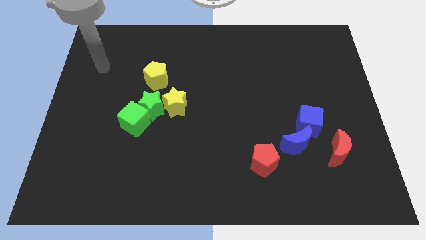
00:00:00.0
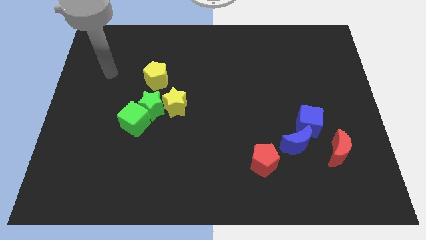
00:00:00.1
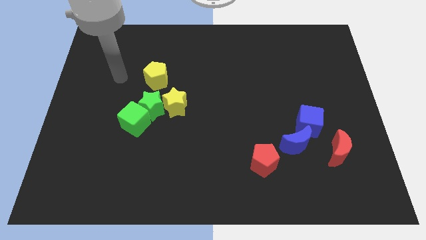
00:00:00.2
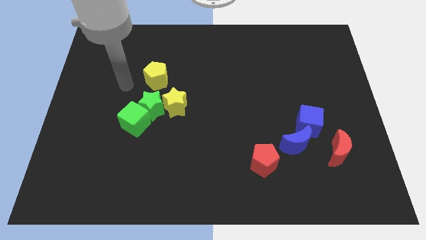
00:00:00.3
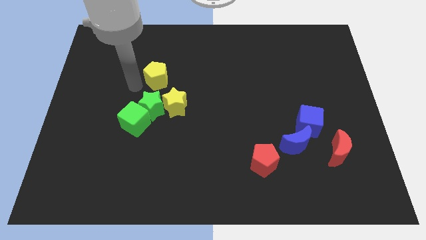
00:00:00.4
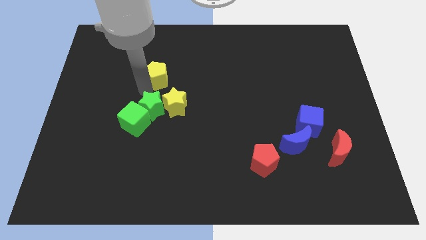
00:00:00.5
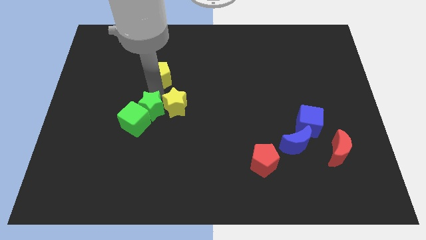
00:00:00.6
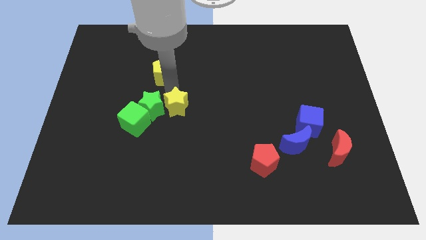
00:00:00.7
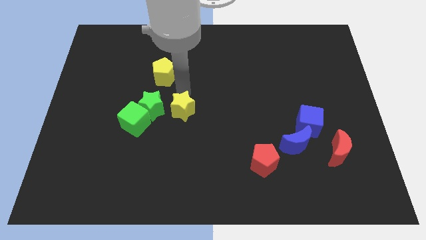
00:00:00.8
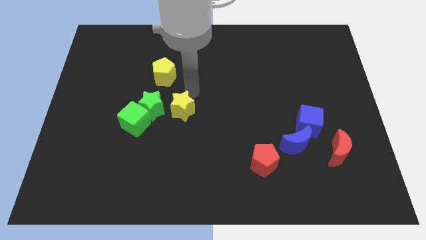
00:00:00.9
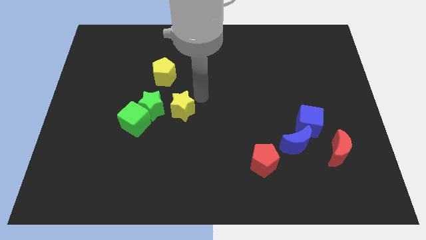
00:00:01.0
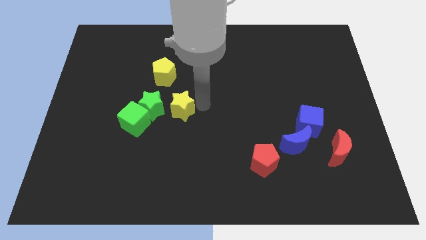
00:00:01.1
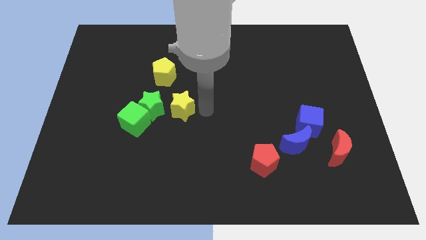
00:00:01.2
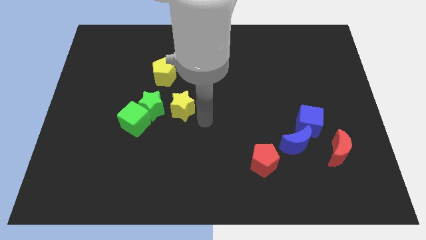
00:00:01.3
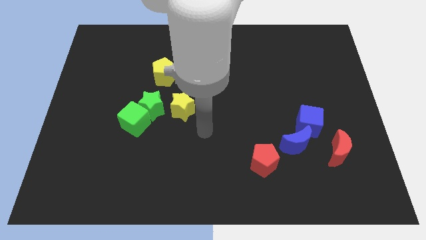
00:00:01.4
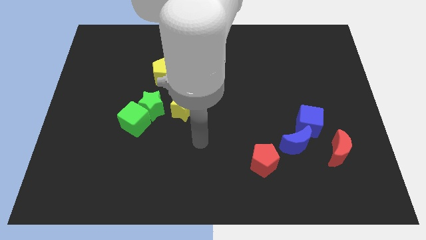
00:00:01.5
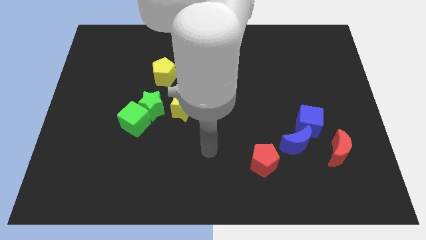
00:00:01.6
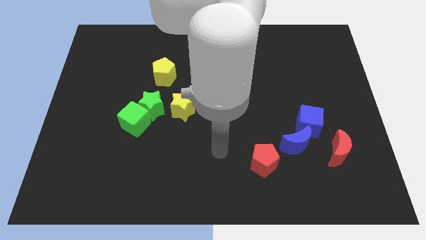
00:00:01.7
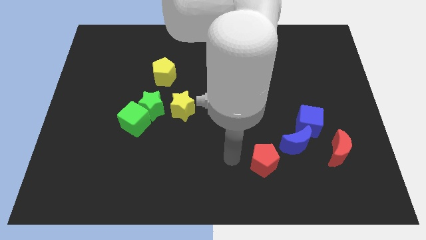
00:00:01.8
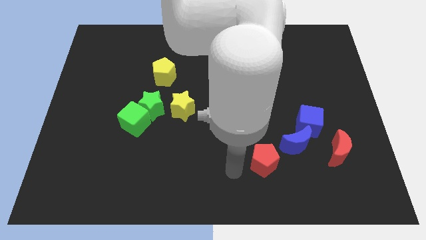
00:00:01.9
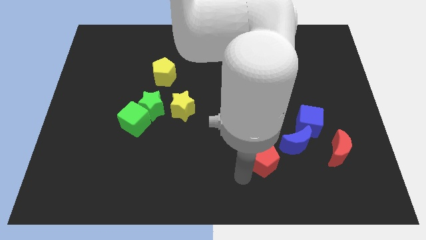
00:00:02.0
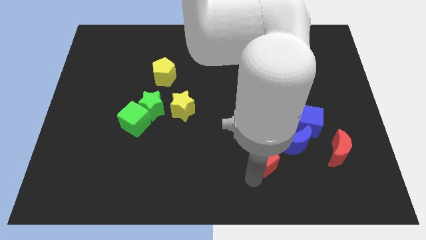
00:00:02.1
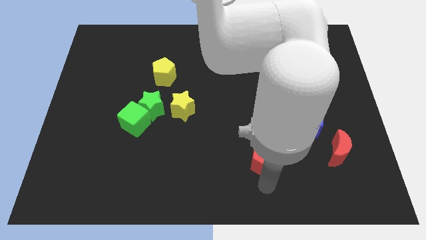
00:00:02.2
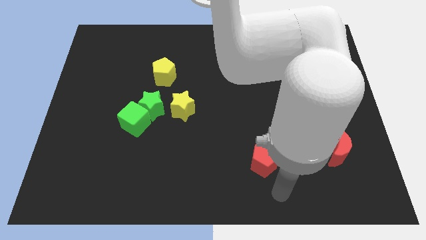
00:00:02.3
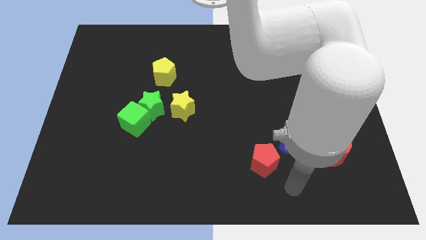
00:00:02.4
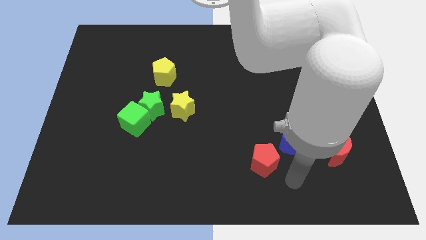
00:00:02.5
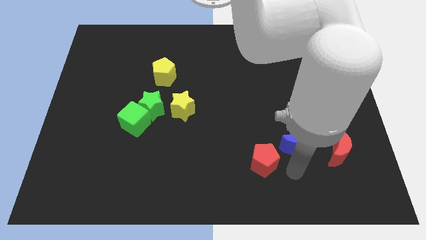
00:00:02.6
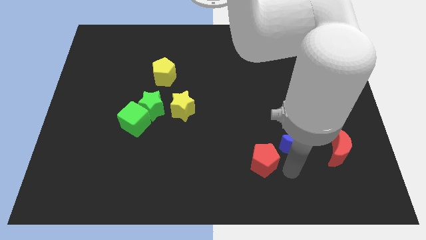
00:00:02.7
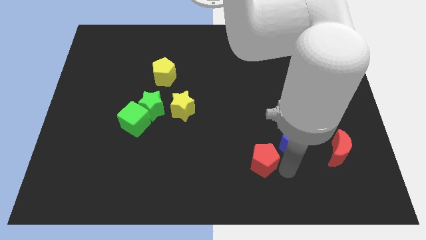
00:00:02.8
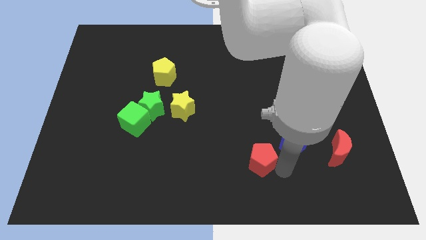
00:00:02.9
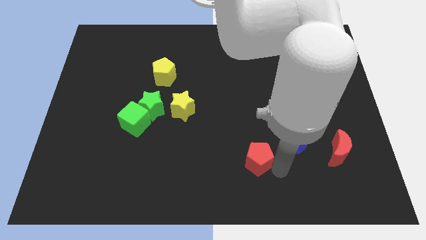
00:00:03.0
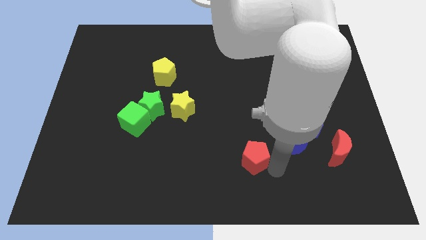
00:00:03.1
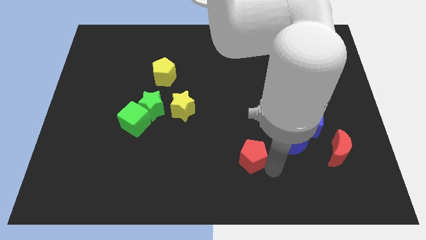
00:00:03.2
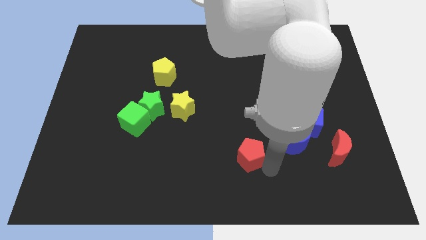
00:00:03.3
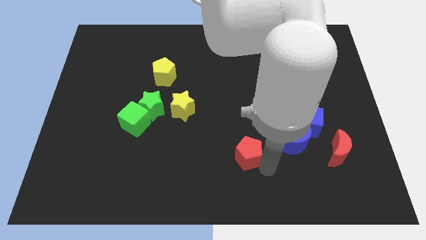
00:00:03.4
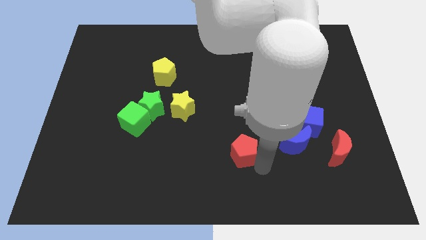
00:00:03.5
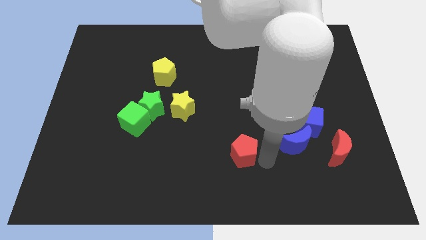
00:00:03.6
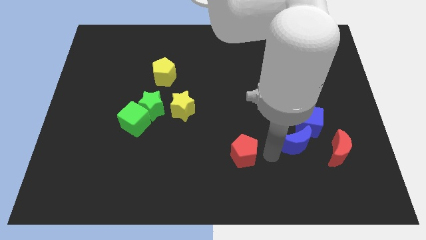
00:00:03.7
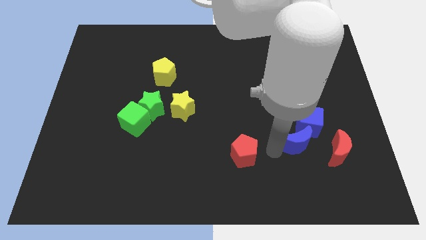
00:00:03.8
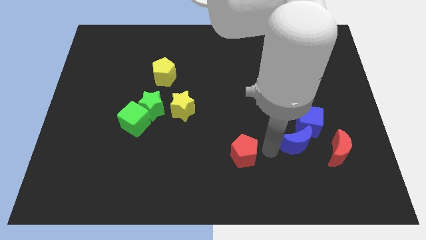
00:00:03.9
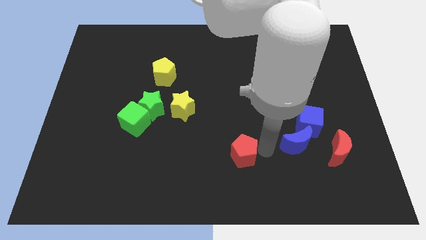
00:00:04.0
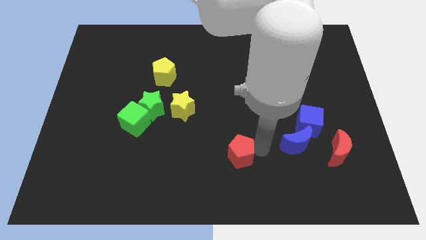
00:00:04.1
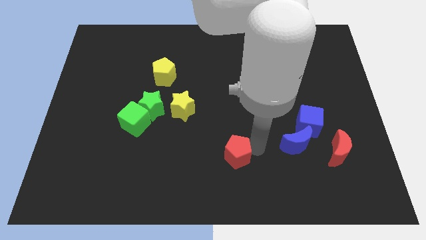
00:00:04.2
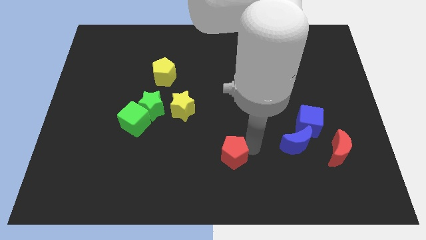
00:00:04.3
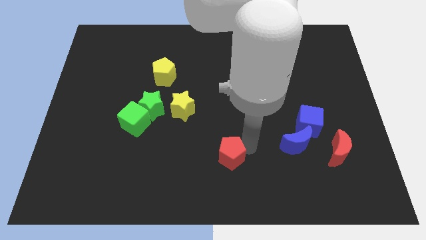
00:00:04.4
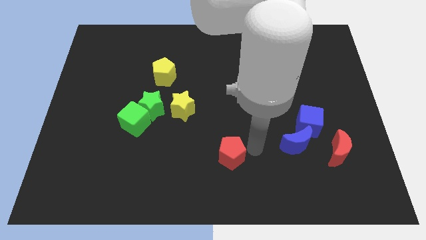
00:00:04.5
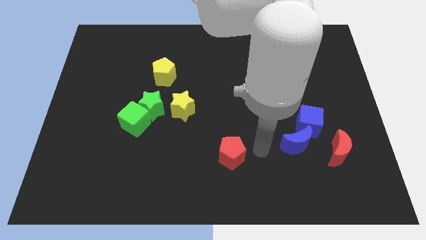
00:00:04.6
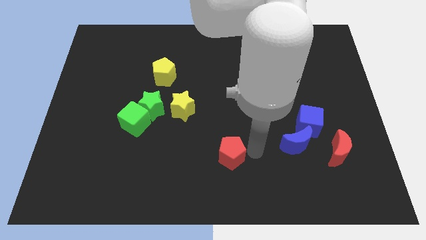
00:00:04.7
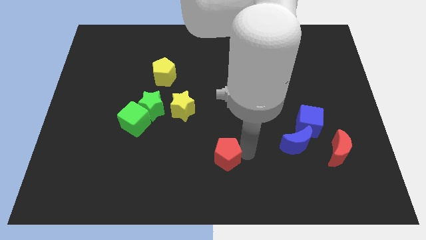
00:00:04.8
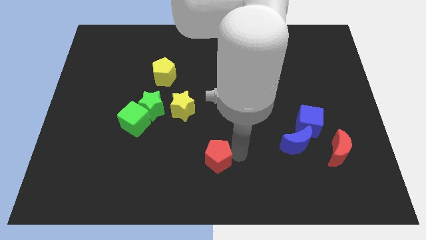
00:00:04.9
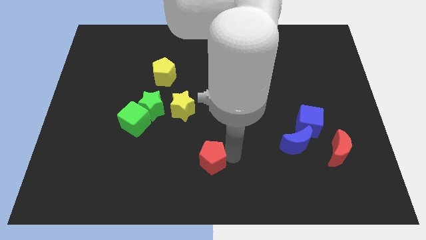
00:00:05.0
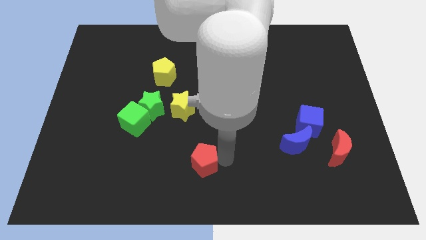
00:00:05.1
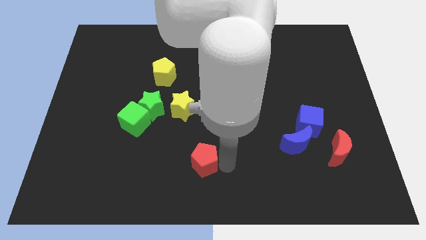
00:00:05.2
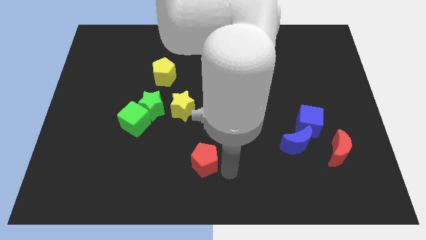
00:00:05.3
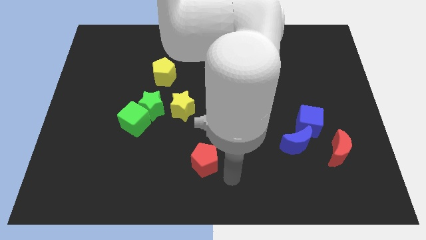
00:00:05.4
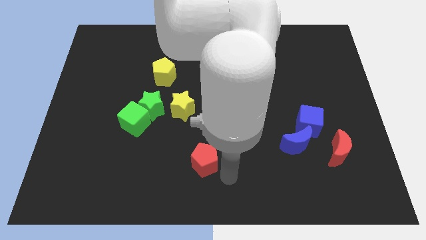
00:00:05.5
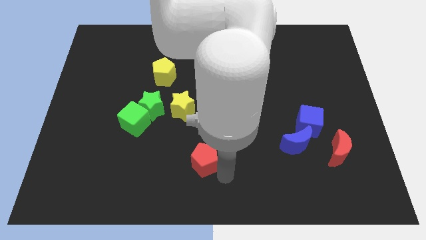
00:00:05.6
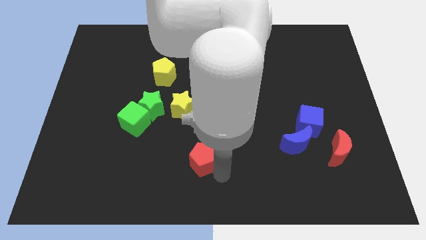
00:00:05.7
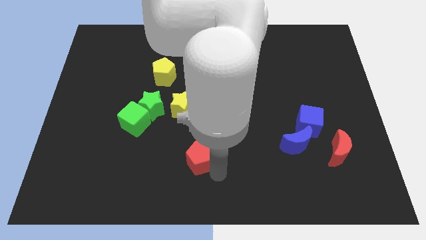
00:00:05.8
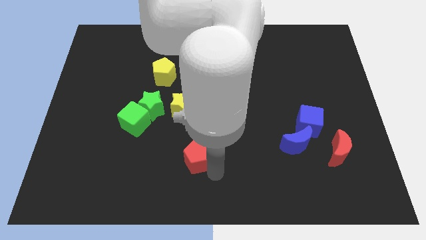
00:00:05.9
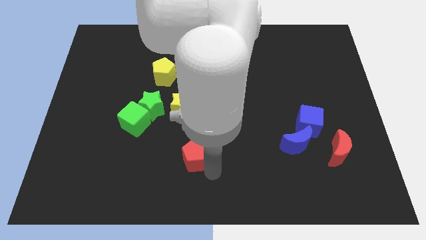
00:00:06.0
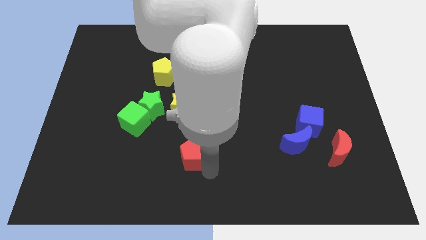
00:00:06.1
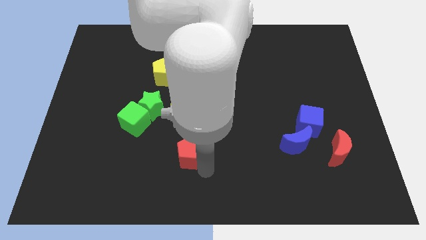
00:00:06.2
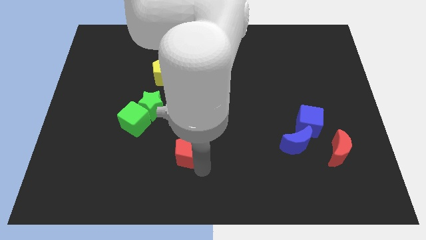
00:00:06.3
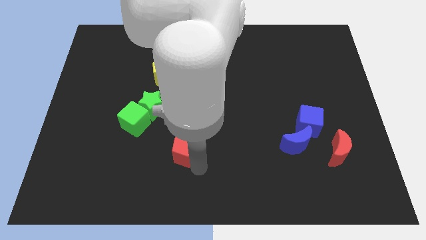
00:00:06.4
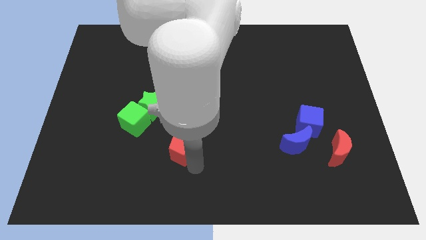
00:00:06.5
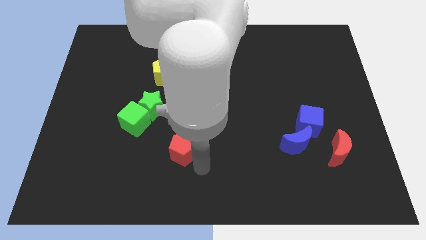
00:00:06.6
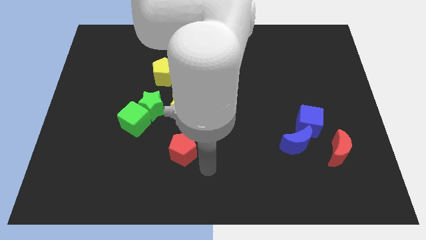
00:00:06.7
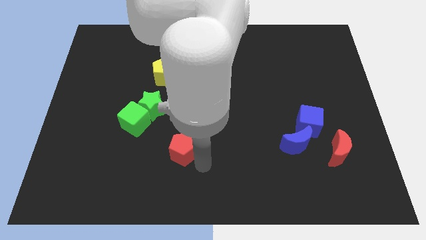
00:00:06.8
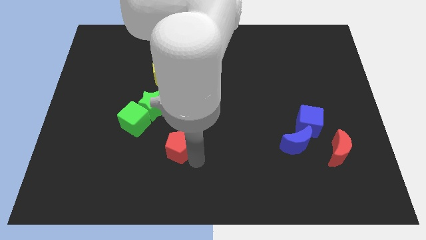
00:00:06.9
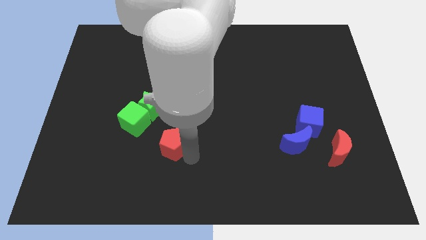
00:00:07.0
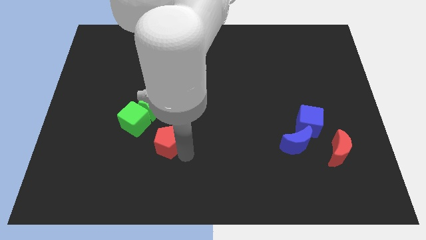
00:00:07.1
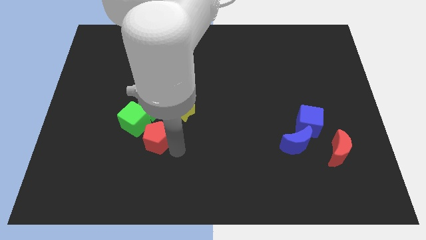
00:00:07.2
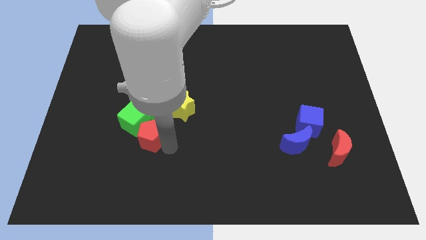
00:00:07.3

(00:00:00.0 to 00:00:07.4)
move the red pentagon next to the green cube

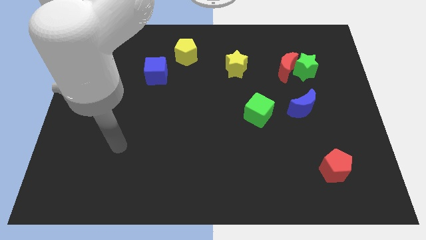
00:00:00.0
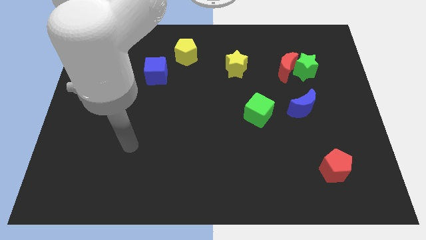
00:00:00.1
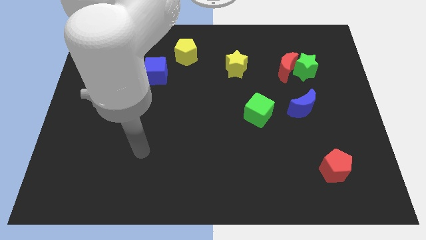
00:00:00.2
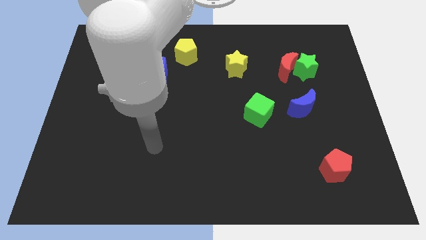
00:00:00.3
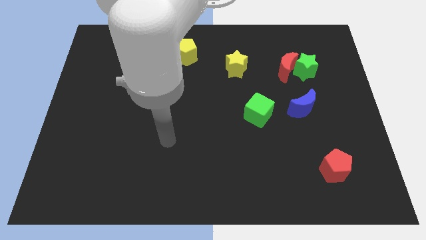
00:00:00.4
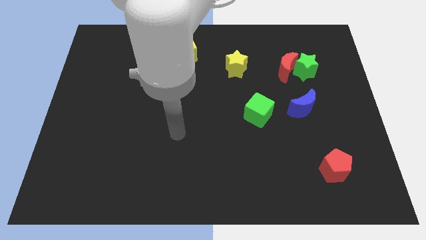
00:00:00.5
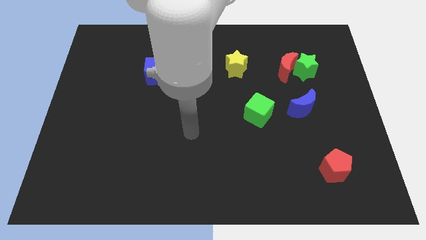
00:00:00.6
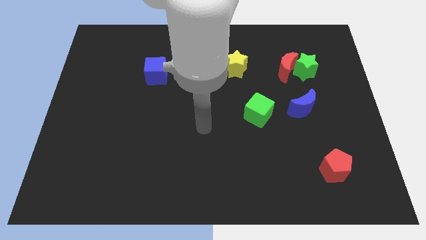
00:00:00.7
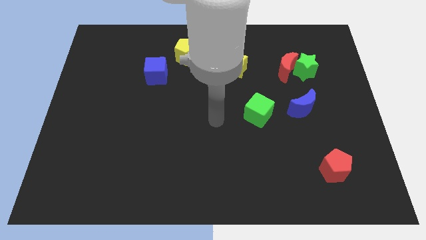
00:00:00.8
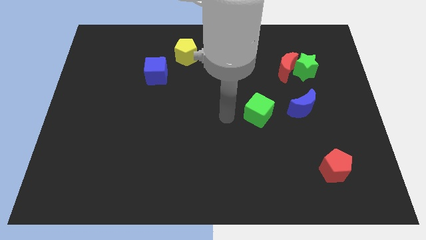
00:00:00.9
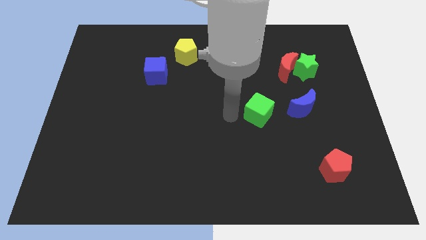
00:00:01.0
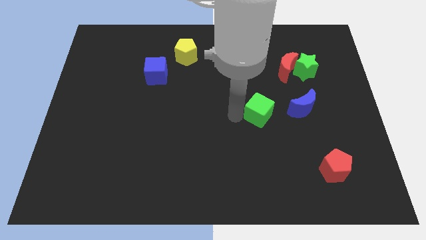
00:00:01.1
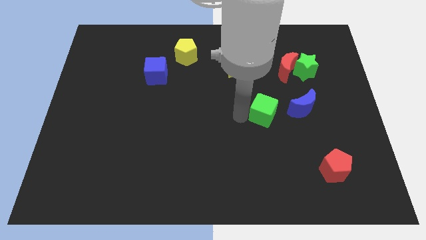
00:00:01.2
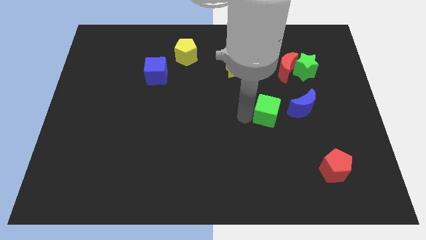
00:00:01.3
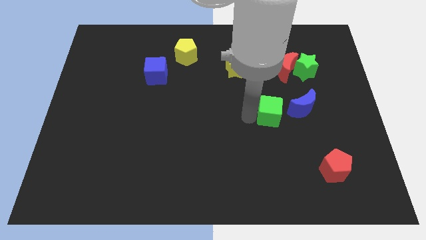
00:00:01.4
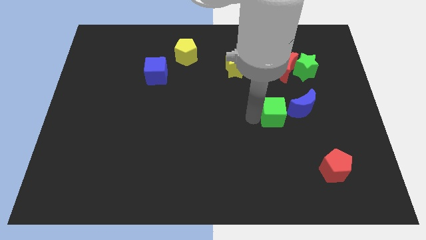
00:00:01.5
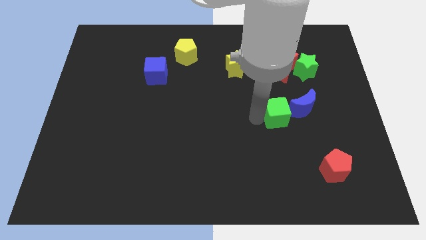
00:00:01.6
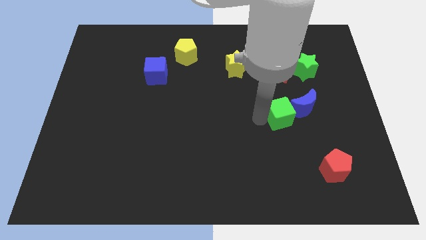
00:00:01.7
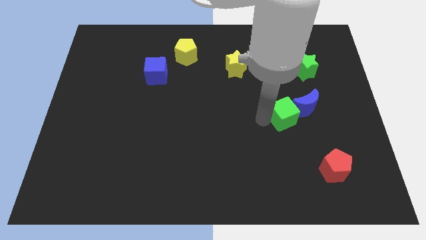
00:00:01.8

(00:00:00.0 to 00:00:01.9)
slide the green cube towards the blue moon
